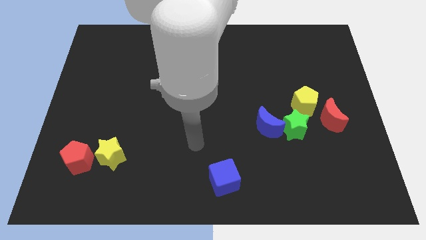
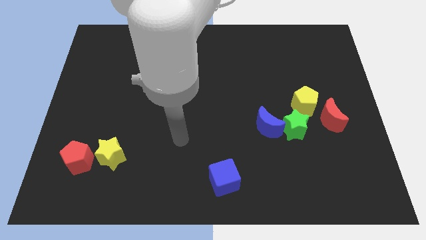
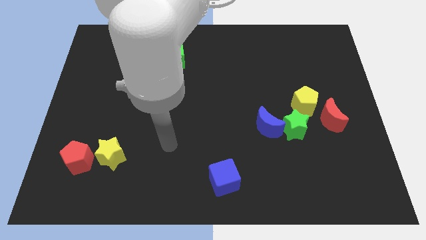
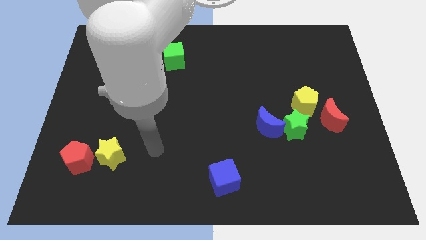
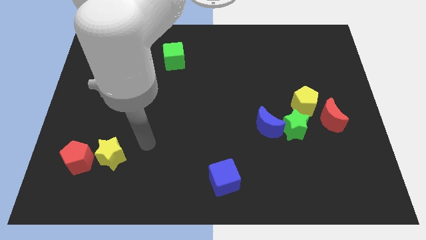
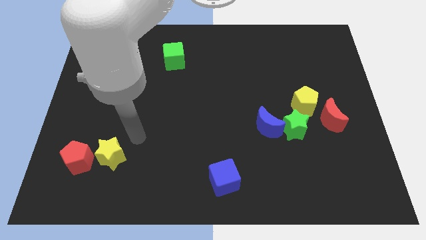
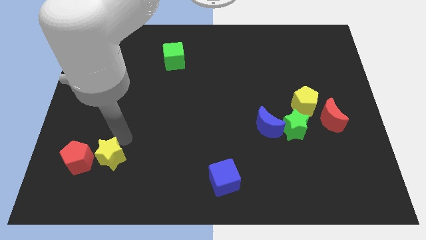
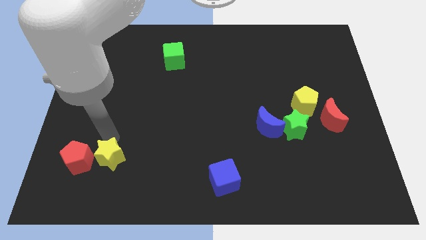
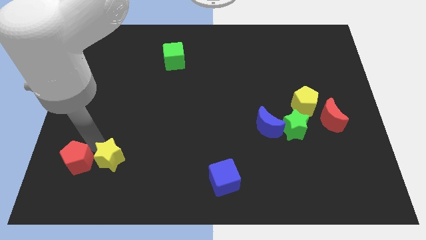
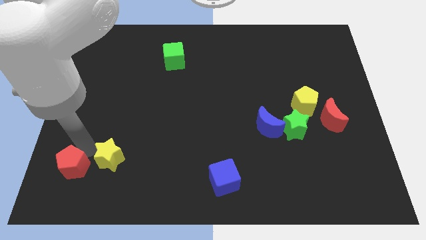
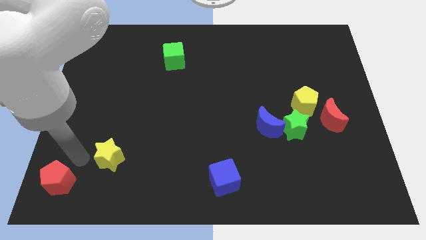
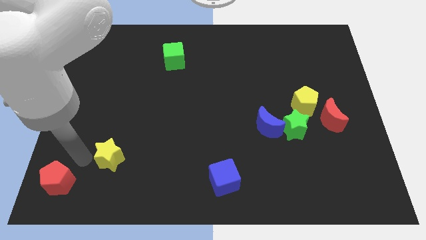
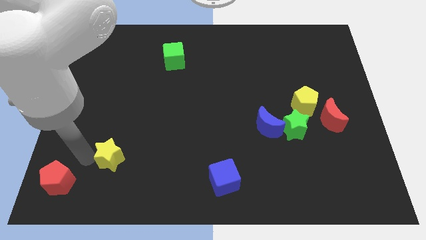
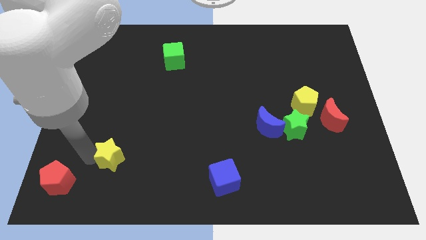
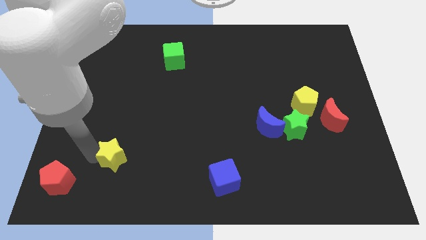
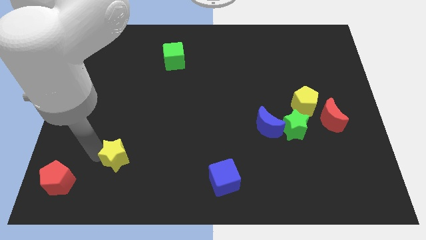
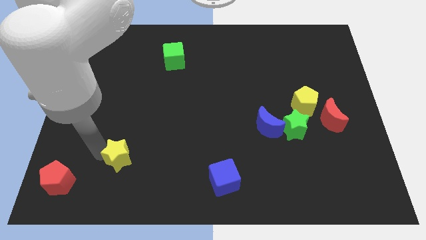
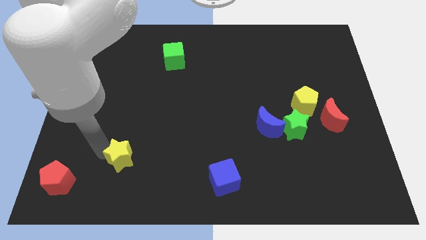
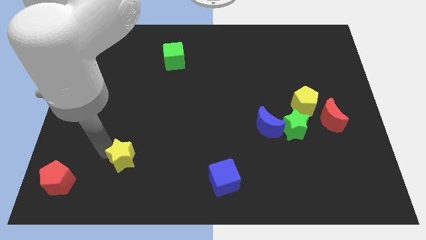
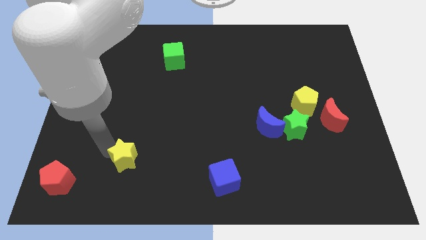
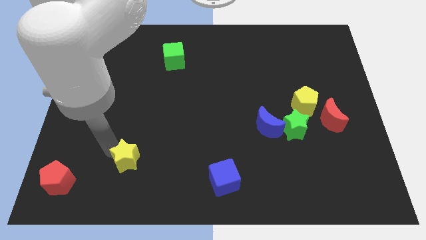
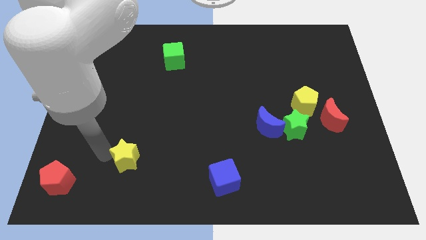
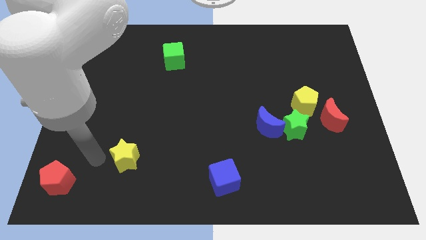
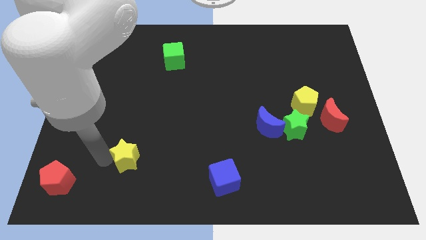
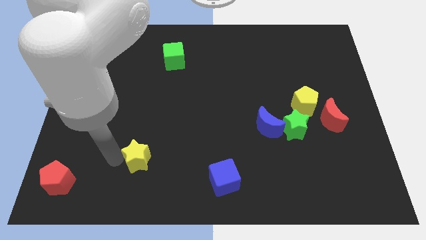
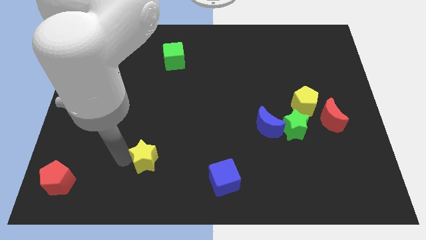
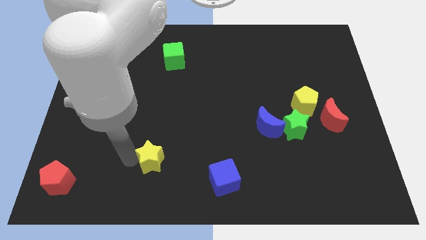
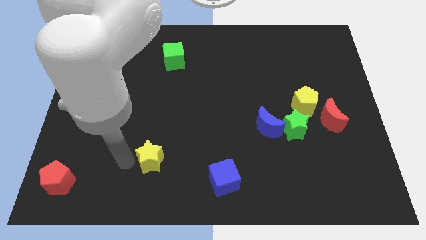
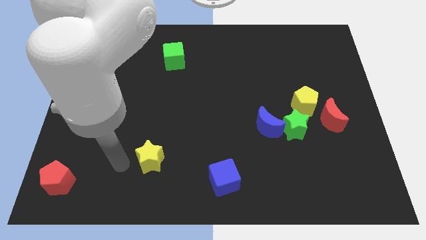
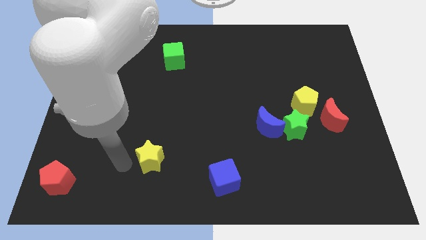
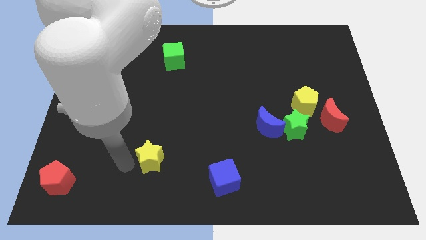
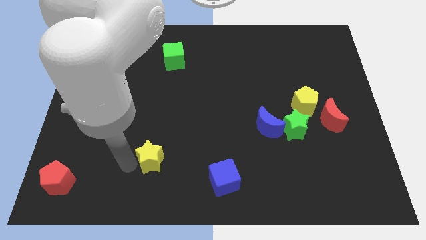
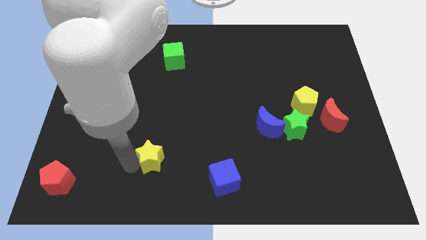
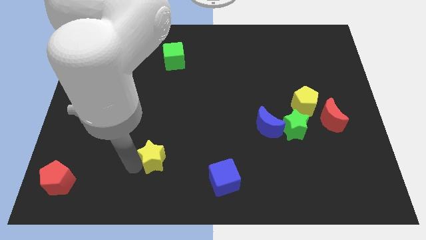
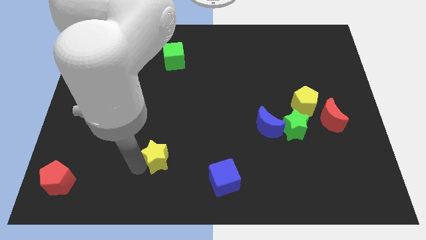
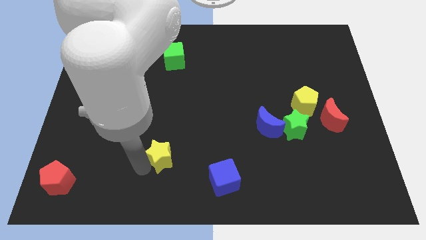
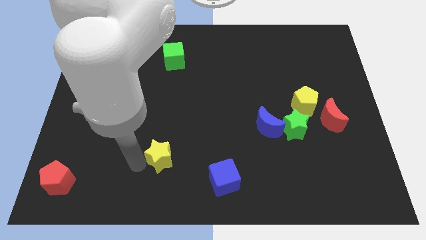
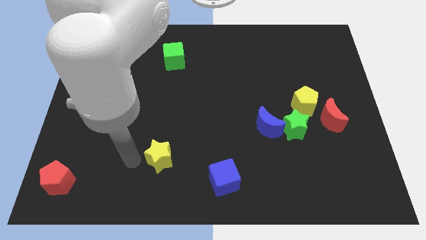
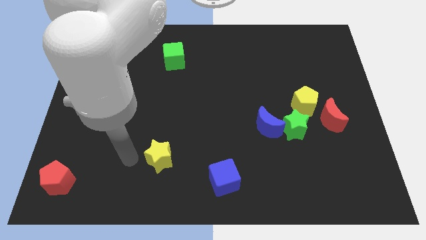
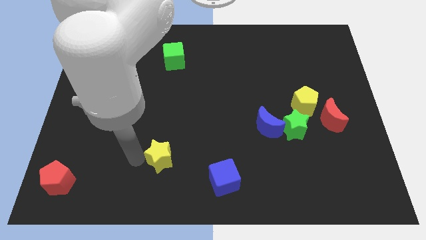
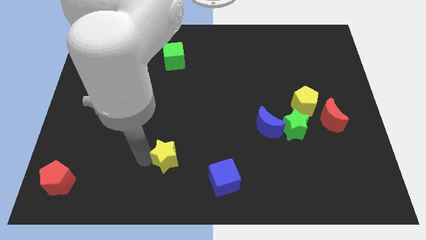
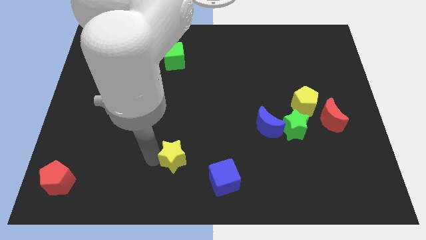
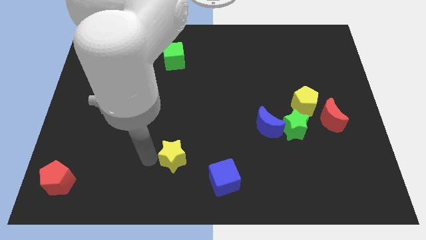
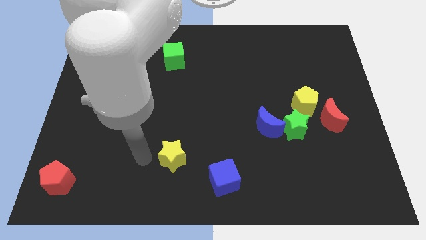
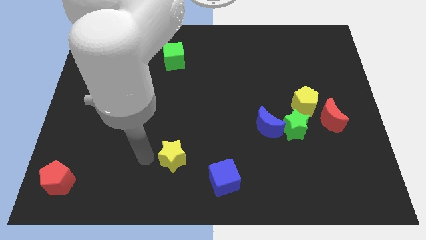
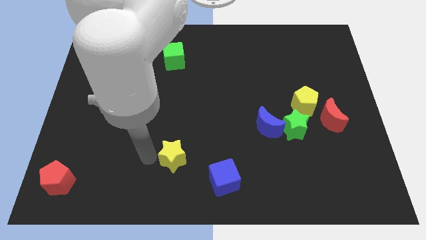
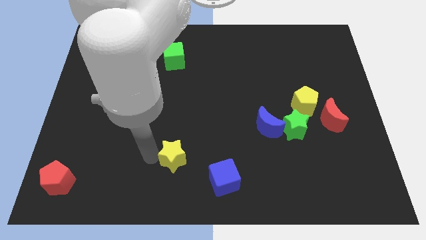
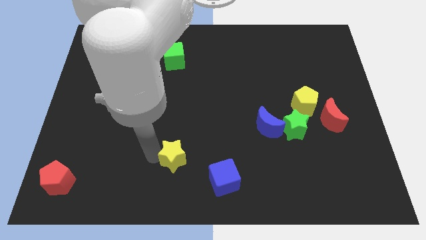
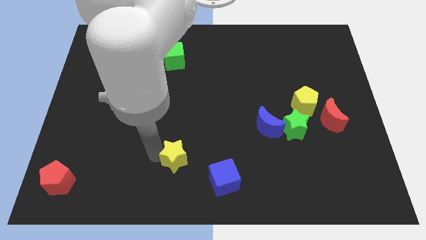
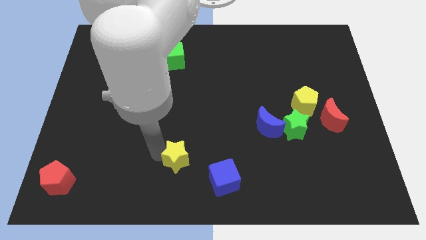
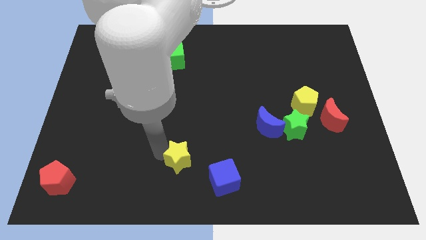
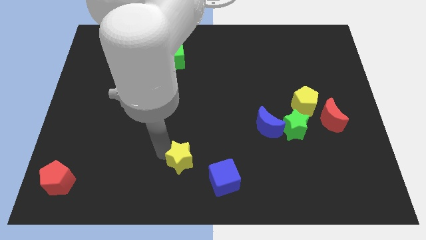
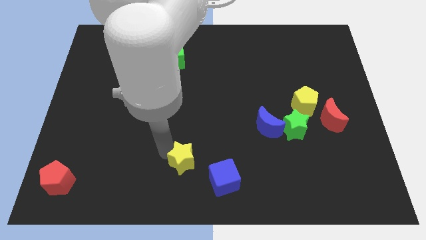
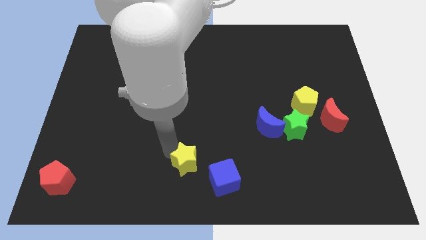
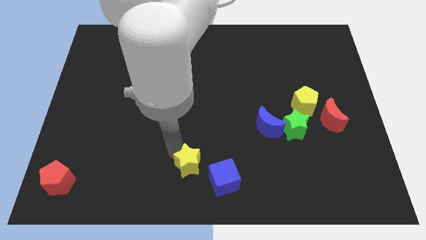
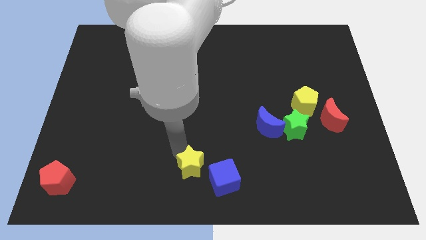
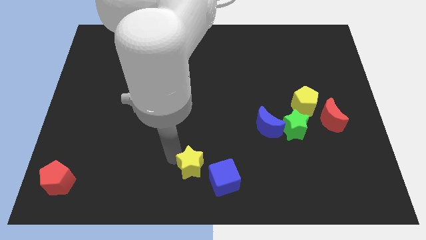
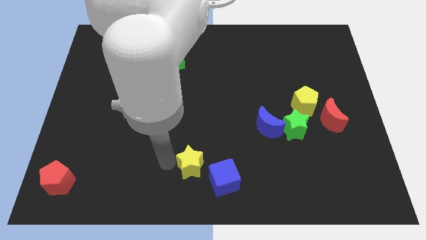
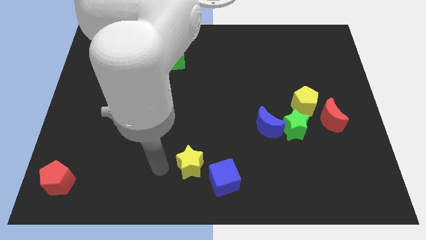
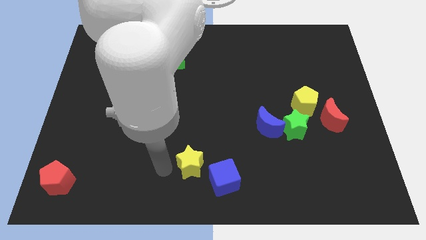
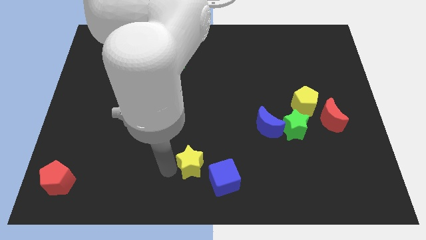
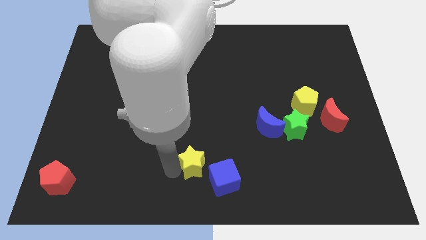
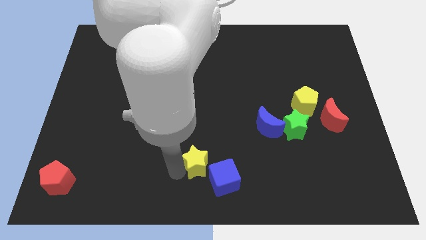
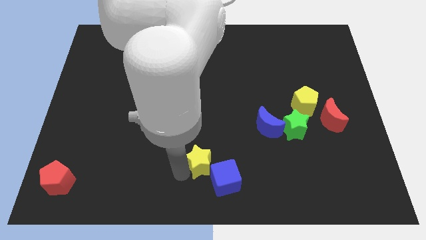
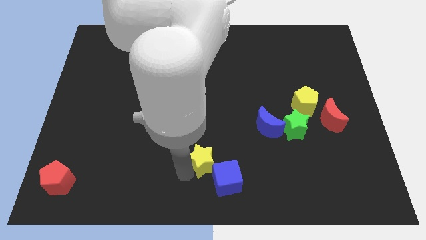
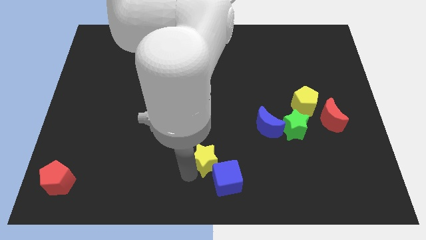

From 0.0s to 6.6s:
move the yellow star right

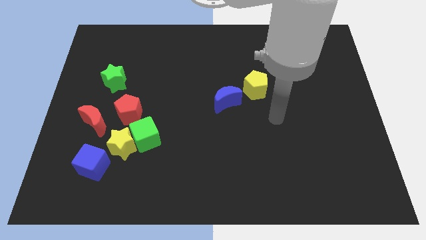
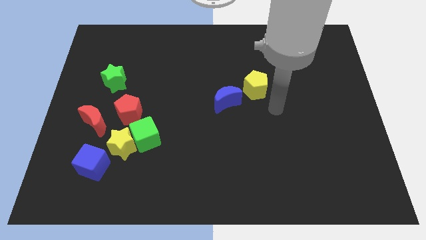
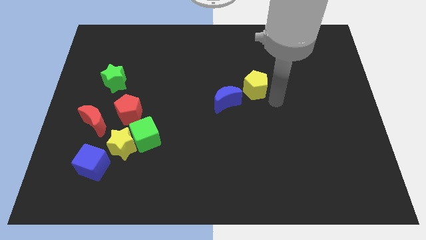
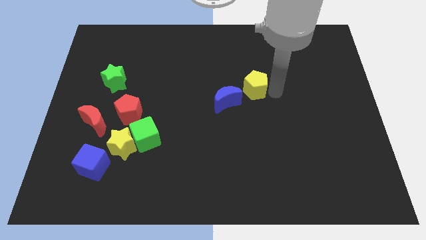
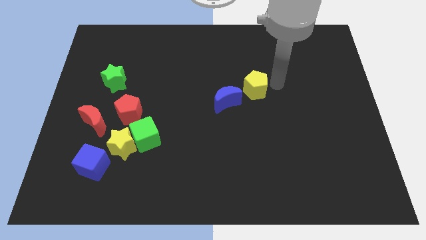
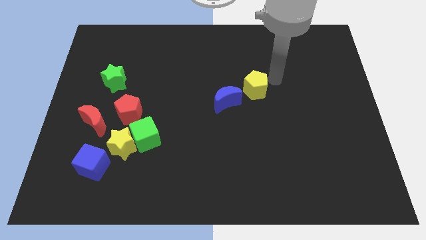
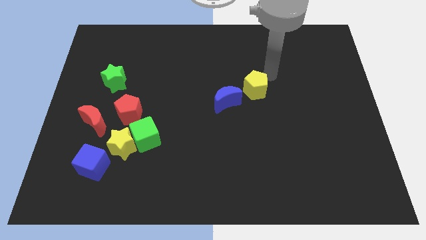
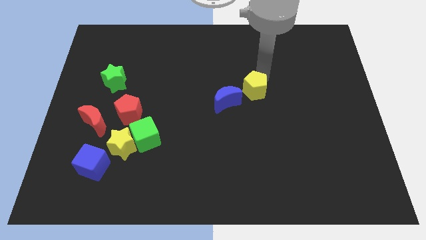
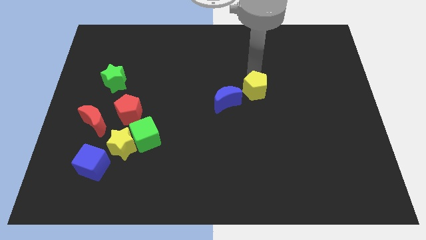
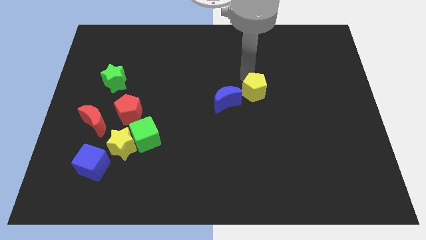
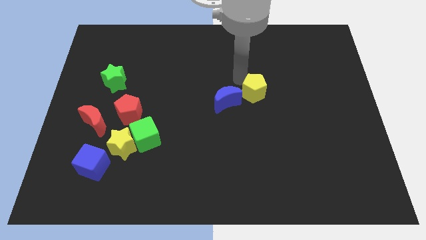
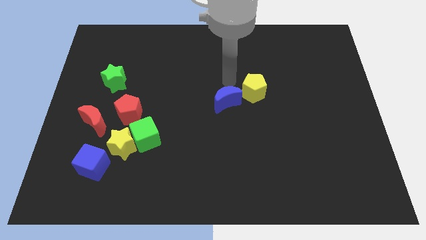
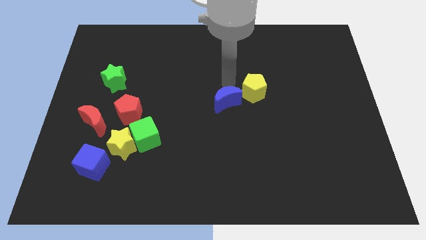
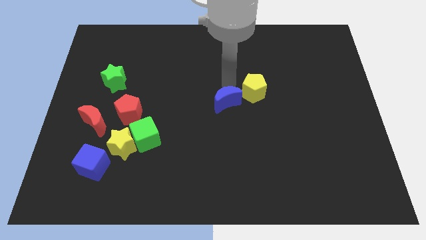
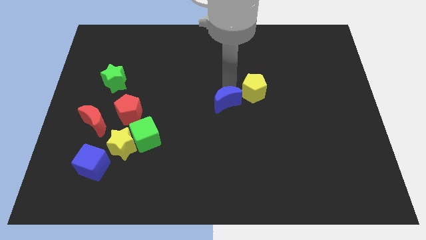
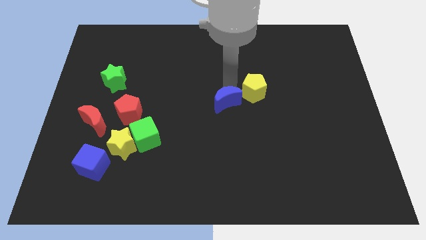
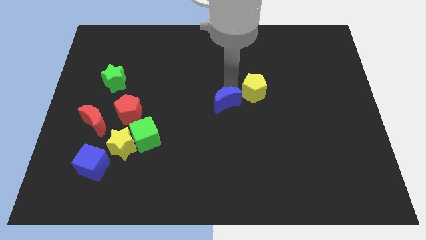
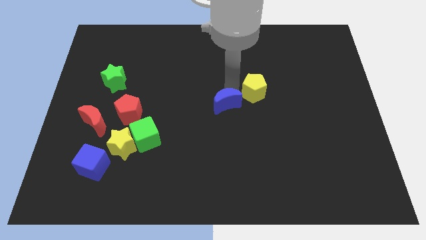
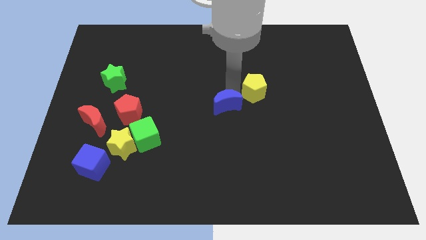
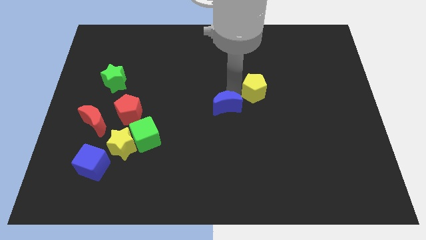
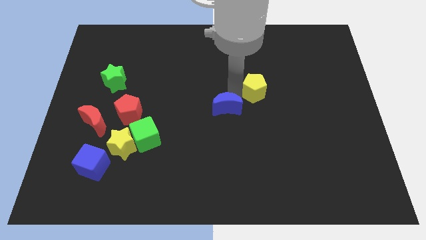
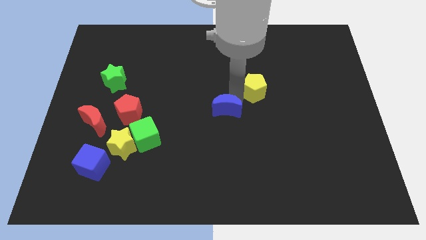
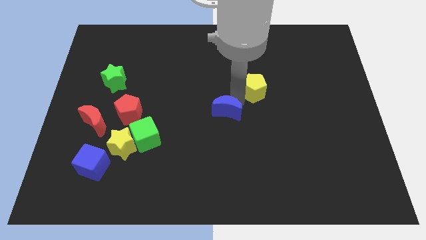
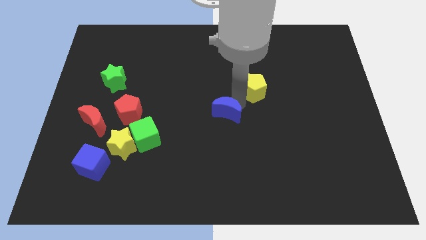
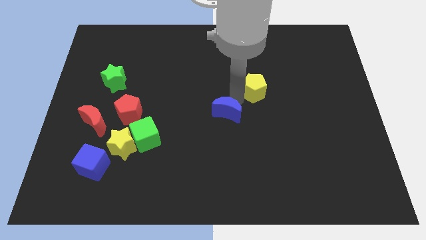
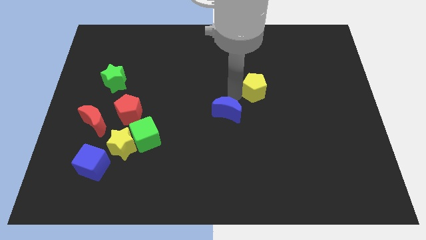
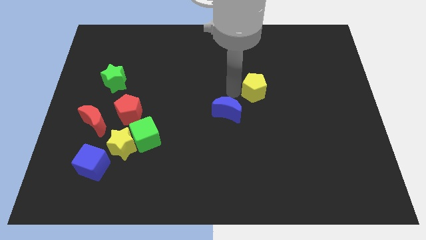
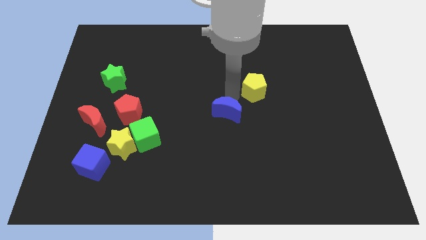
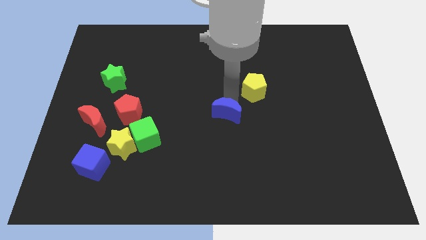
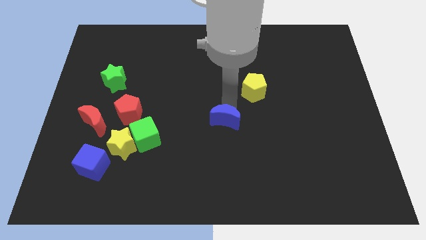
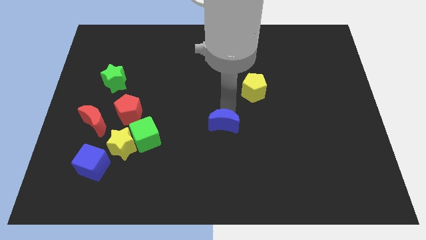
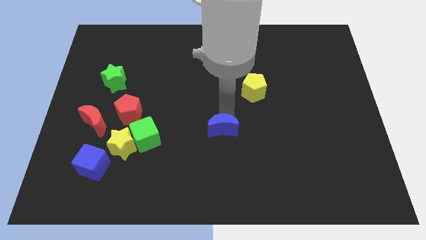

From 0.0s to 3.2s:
slightly push the blue moon downwards
